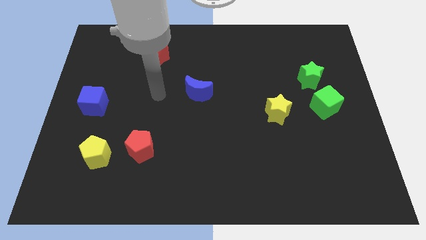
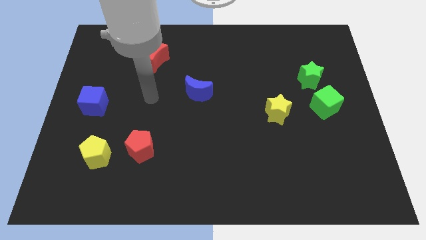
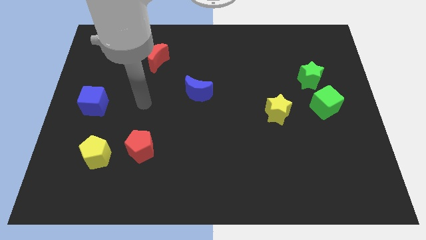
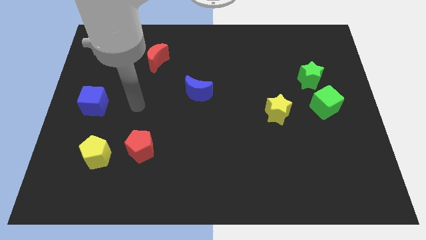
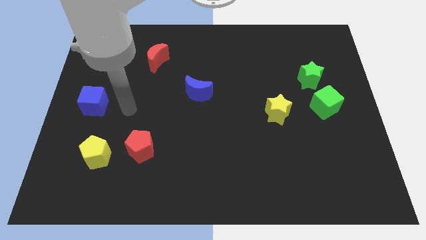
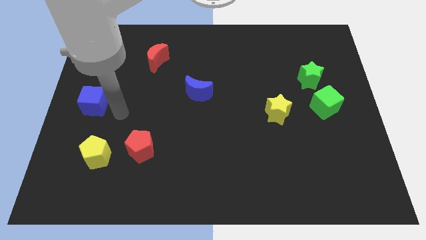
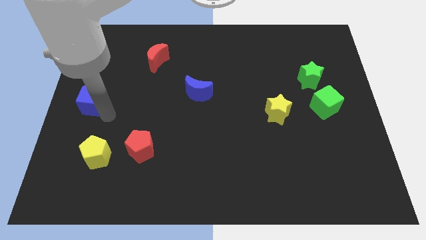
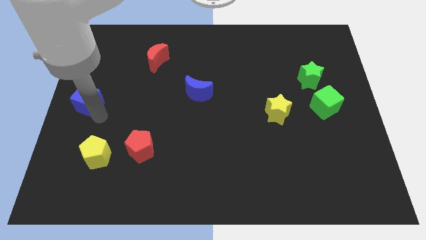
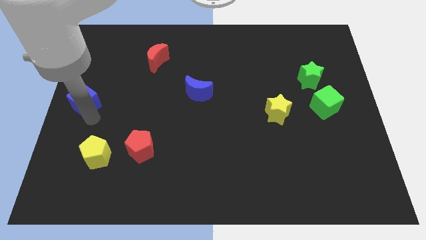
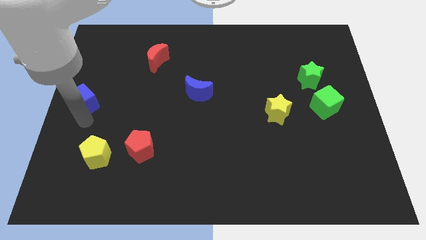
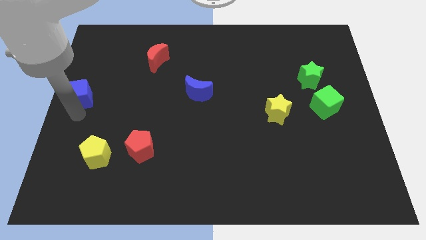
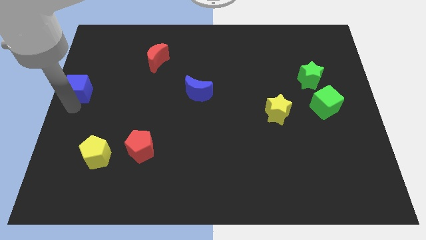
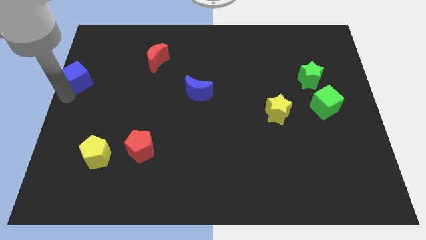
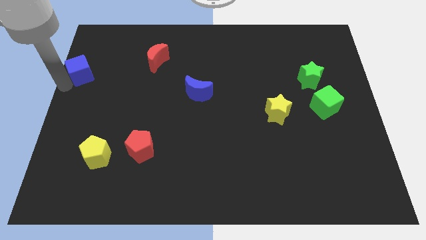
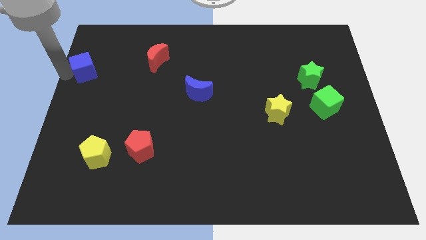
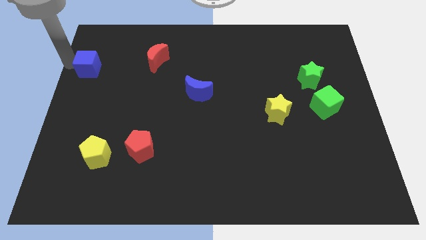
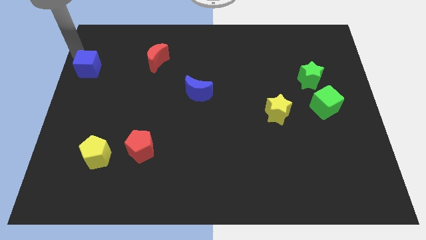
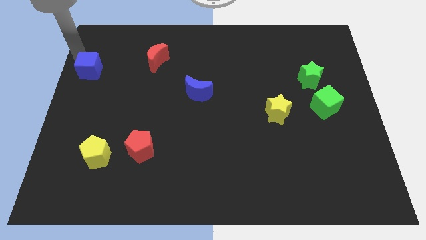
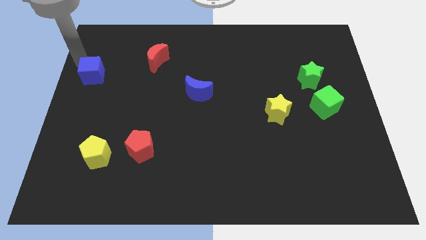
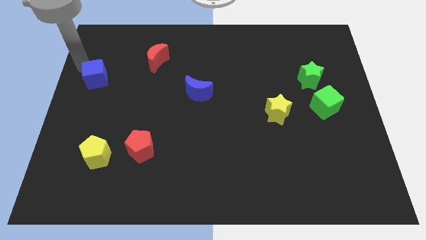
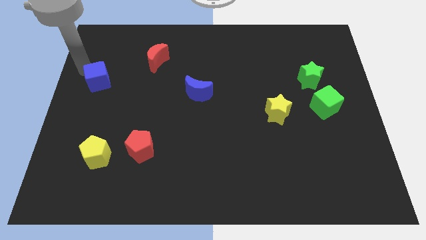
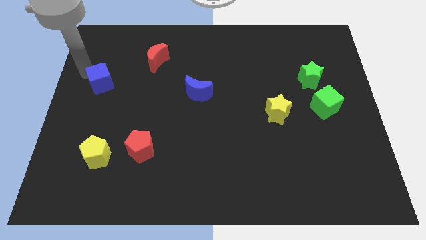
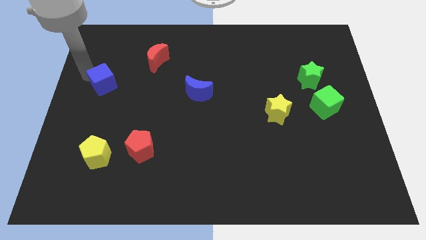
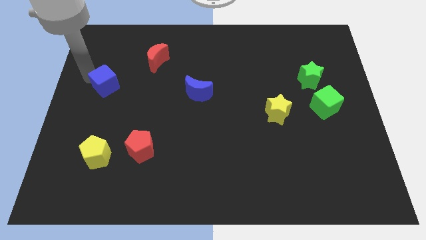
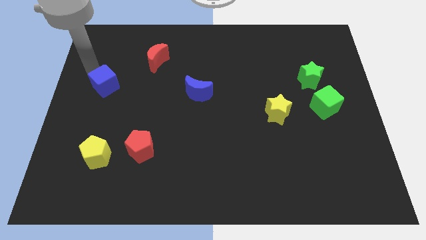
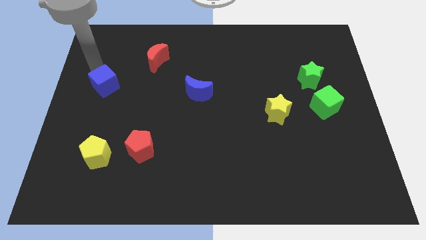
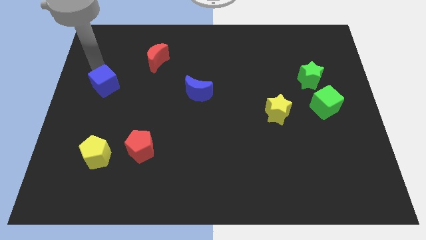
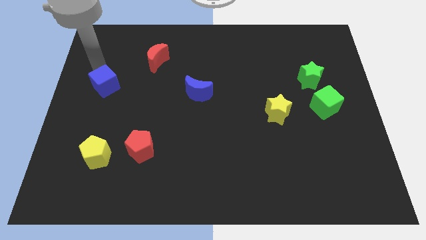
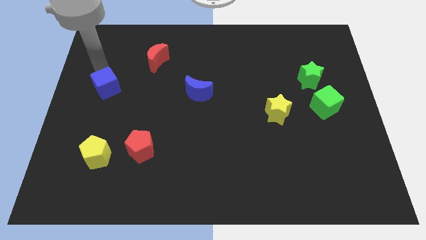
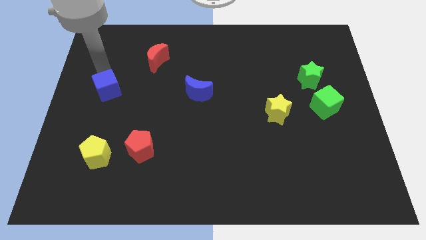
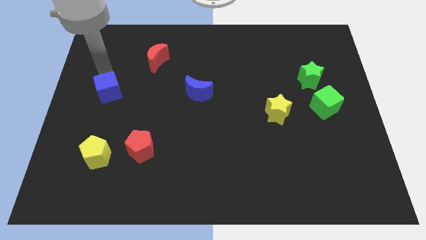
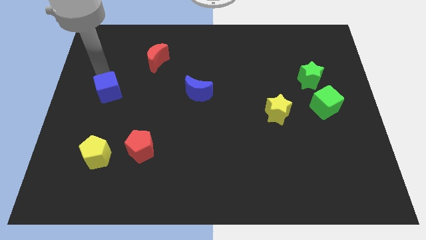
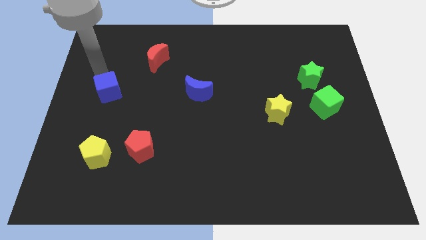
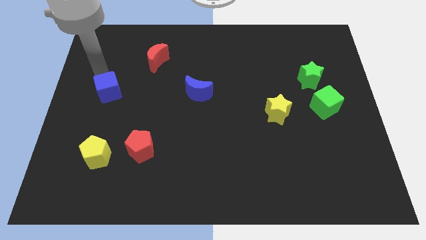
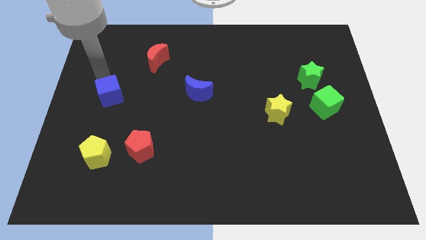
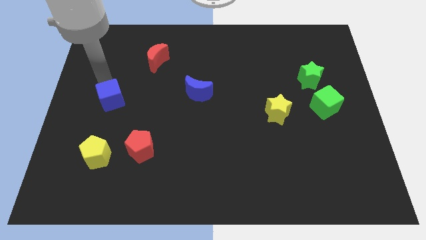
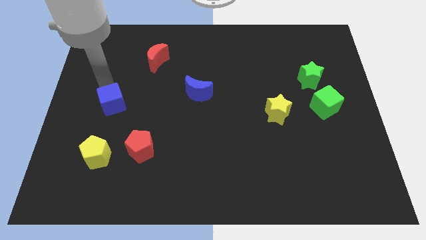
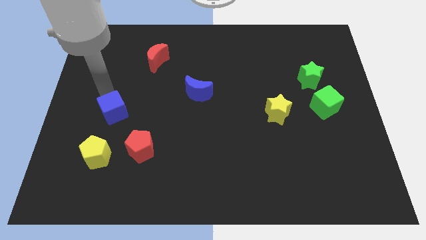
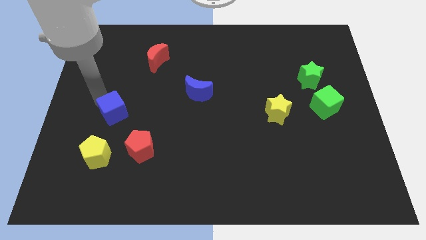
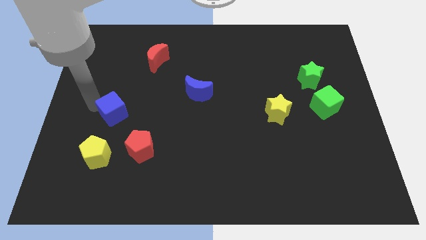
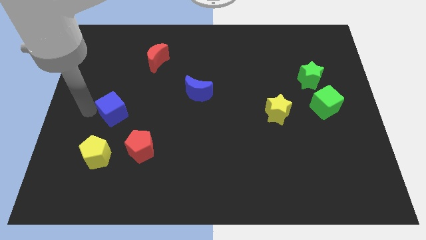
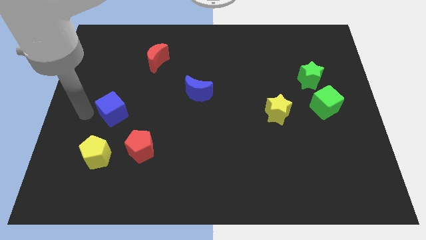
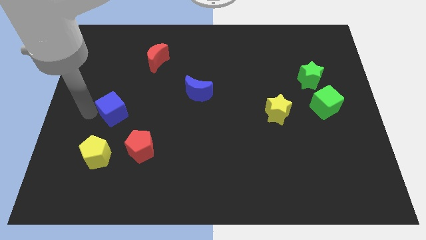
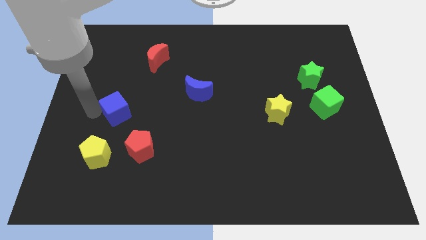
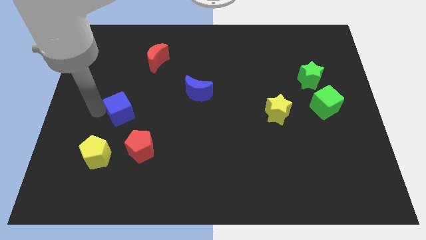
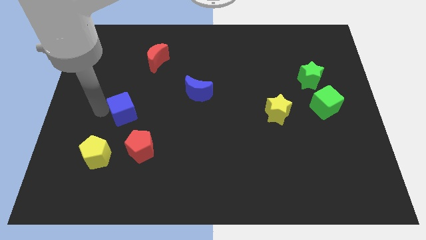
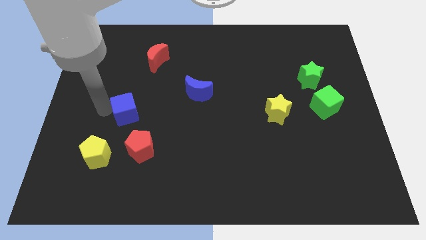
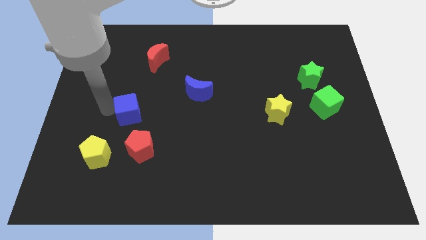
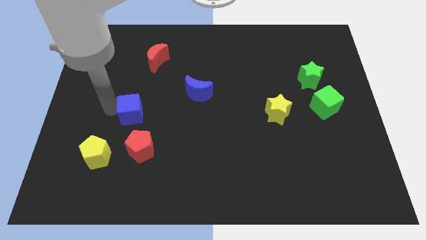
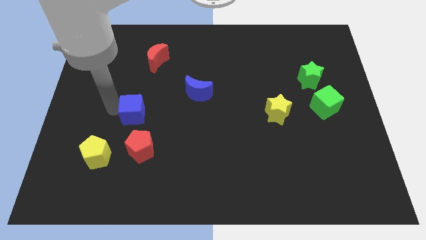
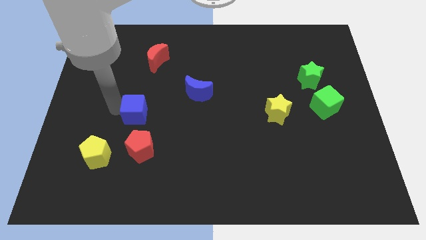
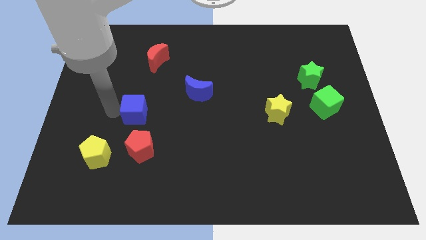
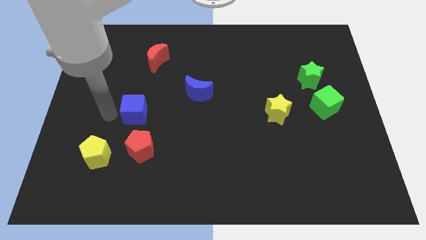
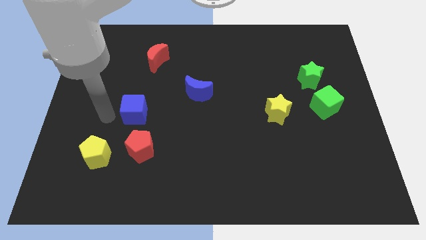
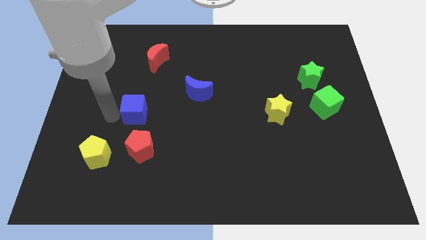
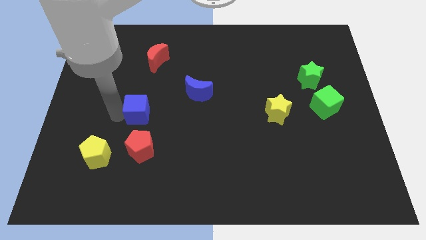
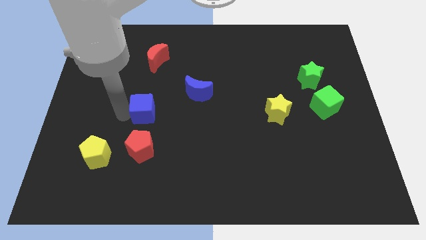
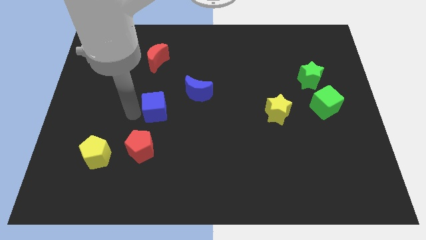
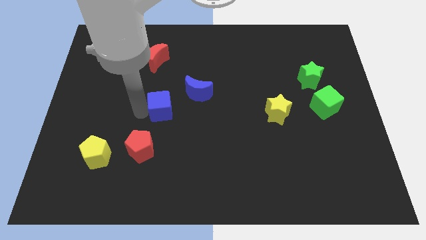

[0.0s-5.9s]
move the blue cube to the middle of the board
